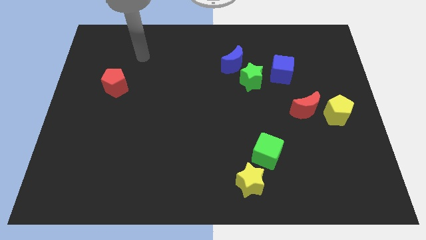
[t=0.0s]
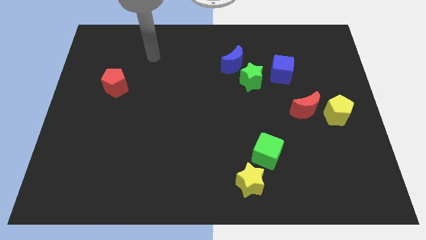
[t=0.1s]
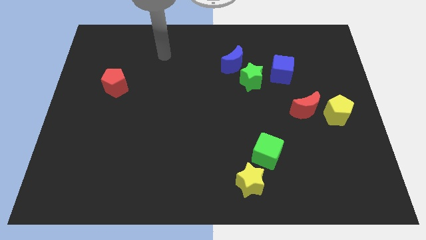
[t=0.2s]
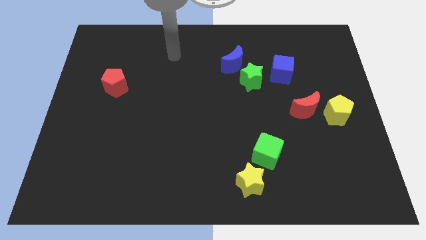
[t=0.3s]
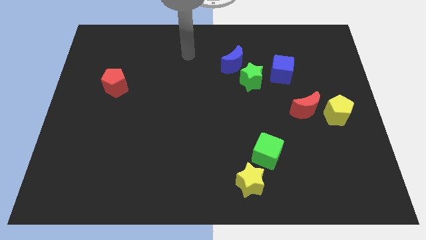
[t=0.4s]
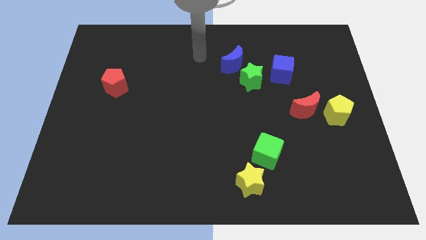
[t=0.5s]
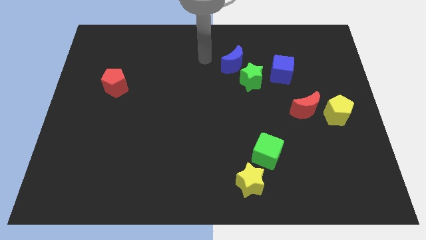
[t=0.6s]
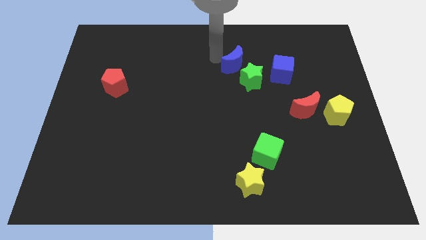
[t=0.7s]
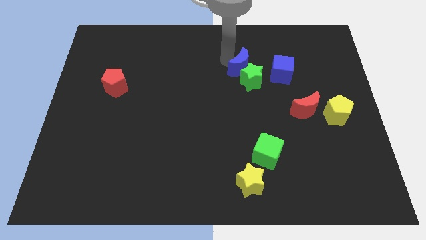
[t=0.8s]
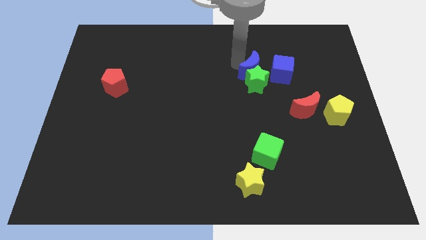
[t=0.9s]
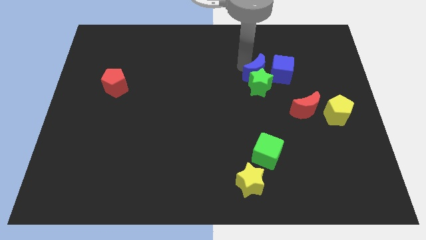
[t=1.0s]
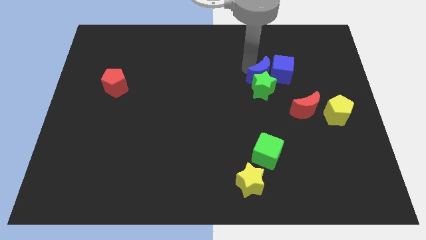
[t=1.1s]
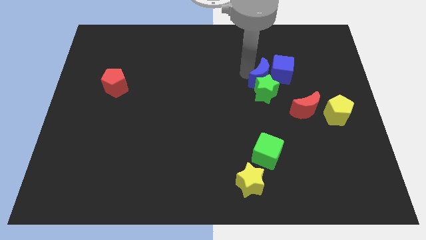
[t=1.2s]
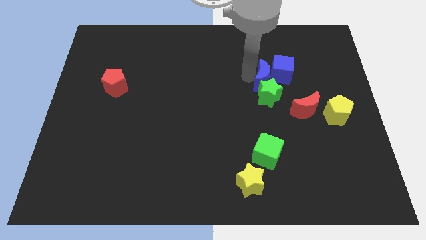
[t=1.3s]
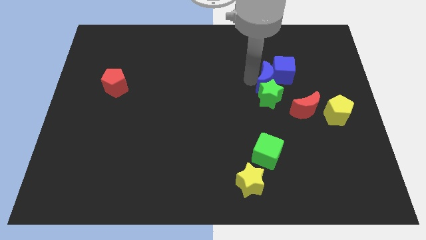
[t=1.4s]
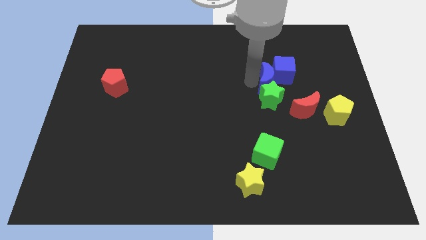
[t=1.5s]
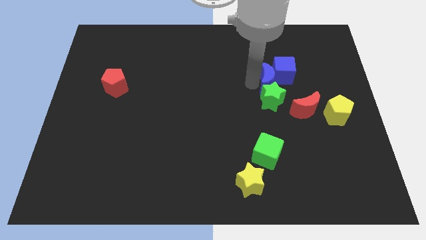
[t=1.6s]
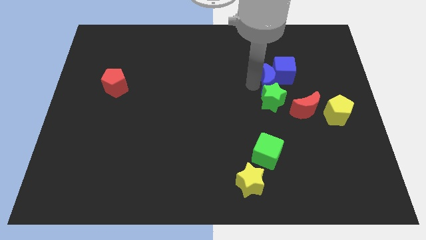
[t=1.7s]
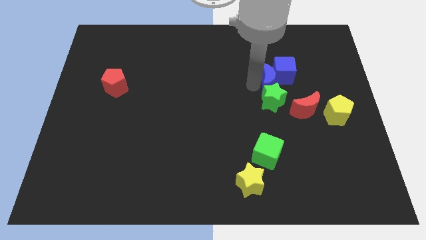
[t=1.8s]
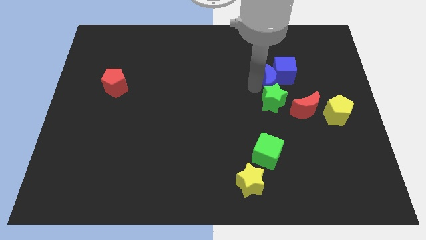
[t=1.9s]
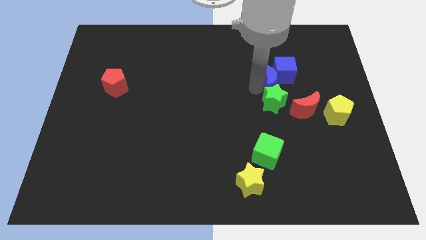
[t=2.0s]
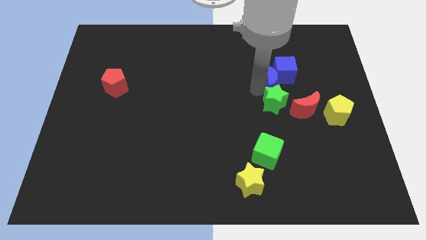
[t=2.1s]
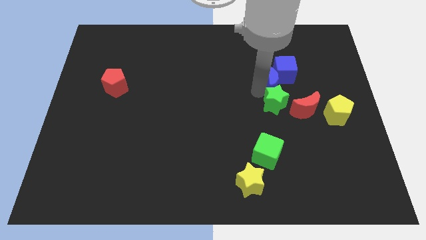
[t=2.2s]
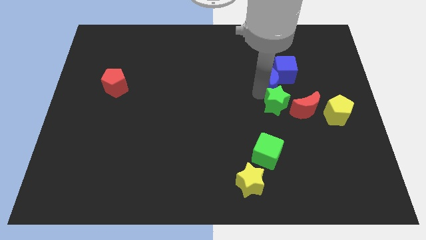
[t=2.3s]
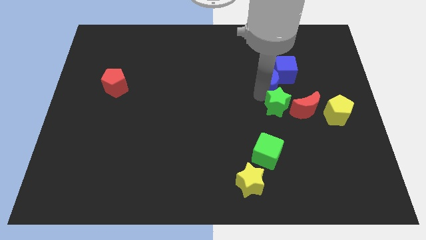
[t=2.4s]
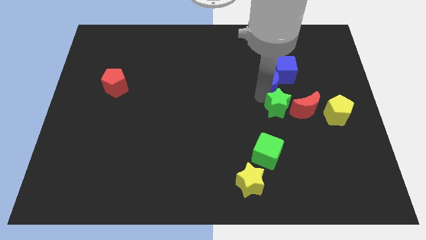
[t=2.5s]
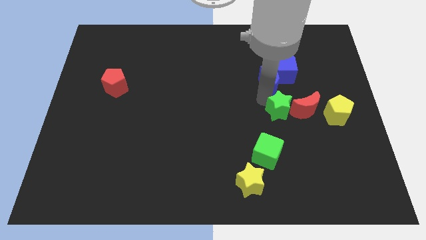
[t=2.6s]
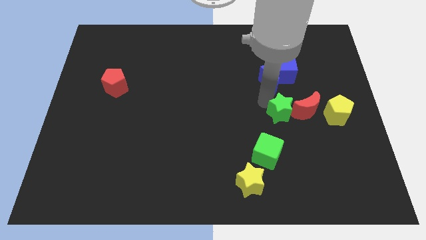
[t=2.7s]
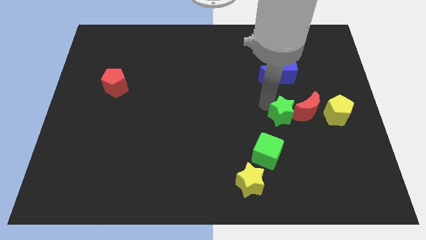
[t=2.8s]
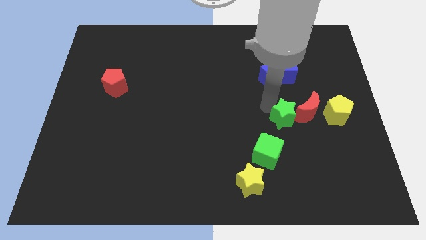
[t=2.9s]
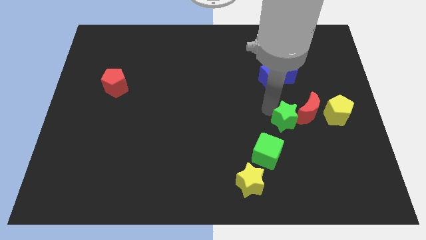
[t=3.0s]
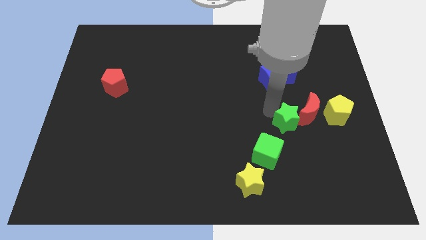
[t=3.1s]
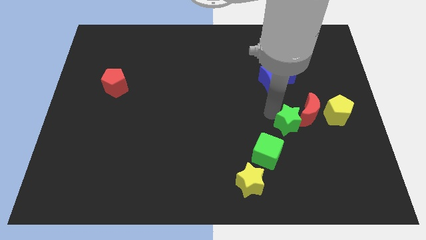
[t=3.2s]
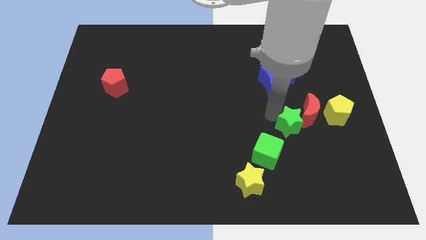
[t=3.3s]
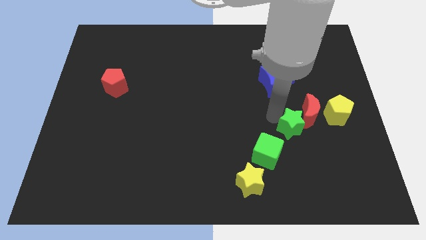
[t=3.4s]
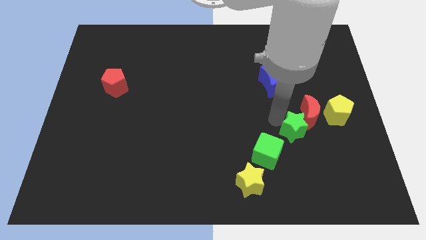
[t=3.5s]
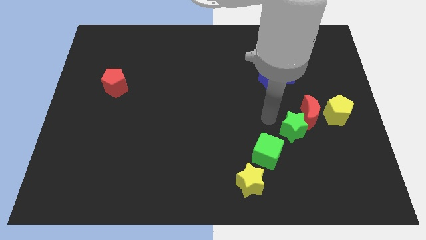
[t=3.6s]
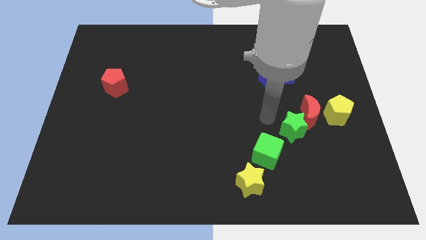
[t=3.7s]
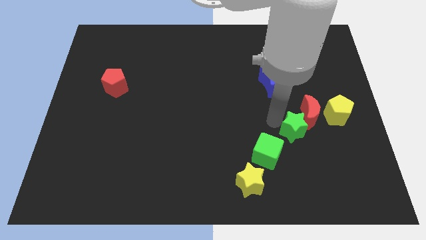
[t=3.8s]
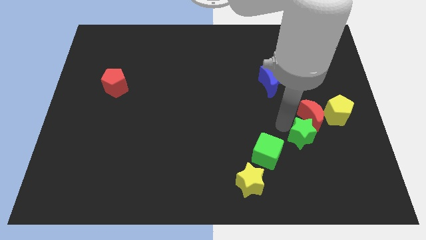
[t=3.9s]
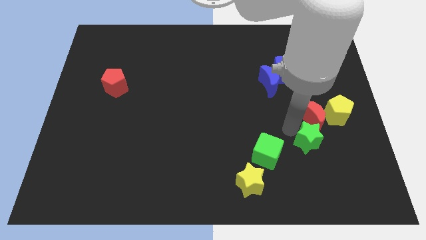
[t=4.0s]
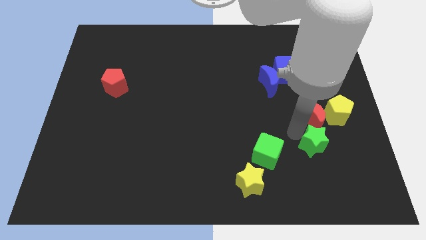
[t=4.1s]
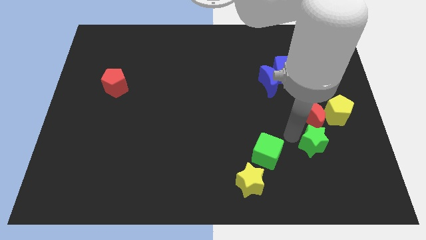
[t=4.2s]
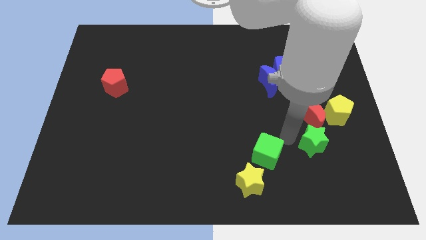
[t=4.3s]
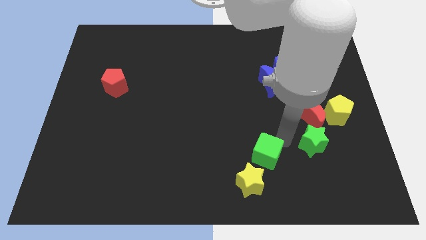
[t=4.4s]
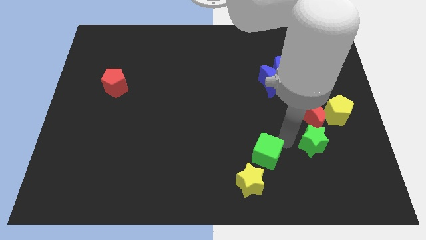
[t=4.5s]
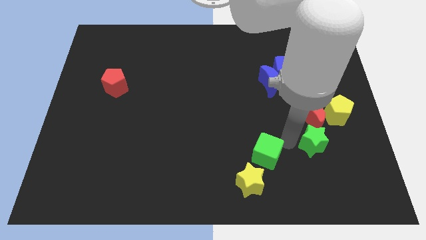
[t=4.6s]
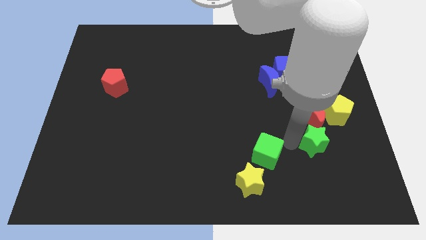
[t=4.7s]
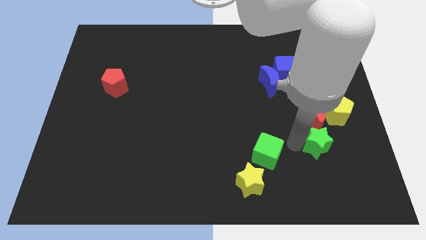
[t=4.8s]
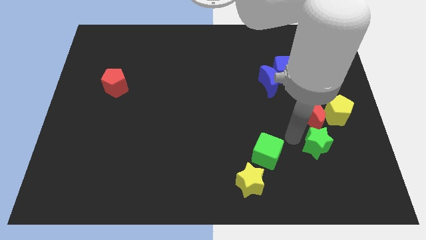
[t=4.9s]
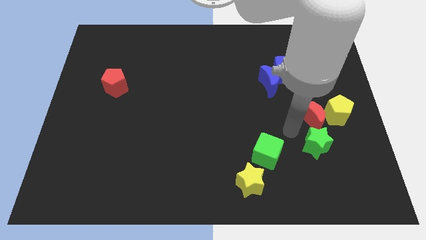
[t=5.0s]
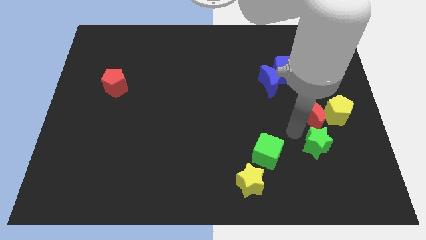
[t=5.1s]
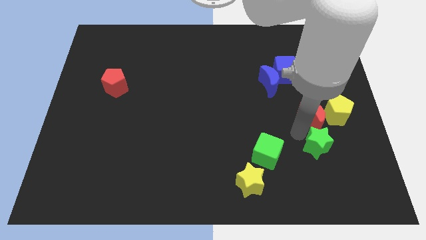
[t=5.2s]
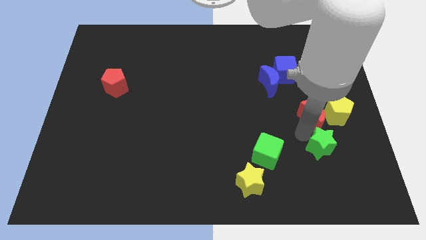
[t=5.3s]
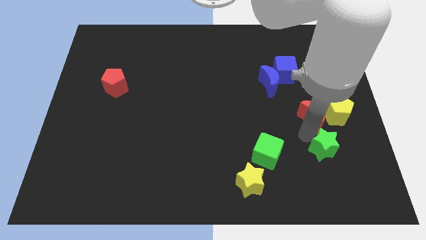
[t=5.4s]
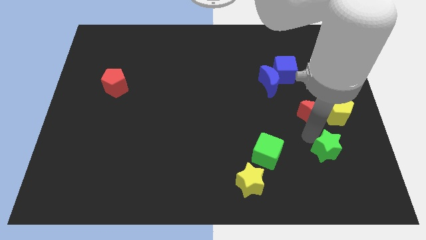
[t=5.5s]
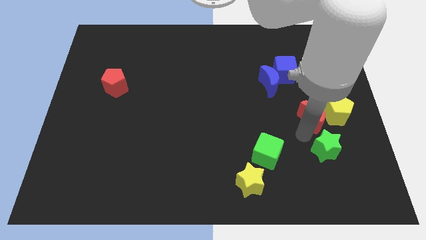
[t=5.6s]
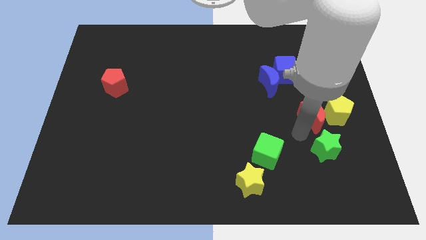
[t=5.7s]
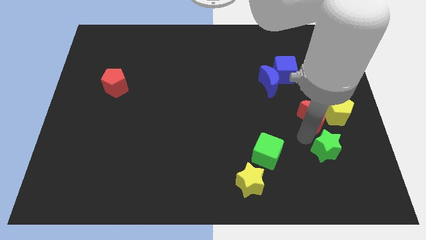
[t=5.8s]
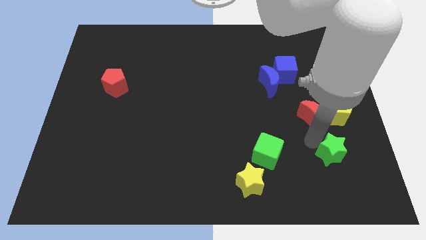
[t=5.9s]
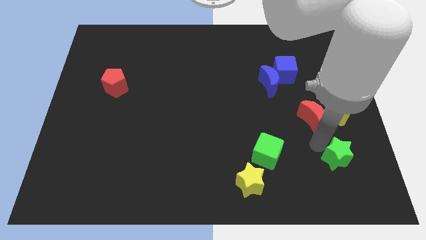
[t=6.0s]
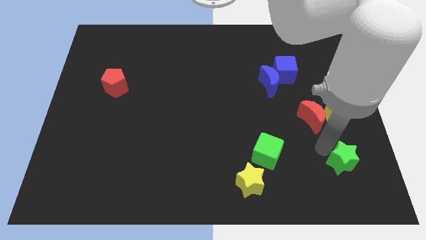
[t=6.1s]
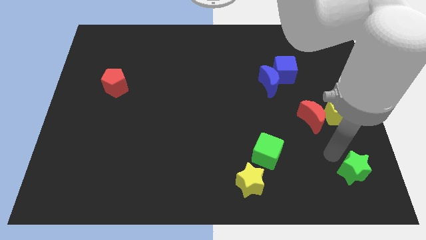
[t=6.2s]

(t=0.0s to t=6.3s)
push the green star to the bottom right corner
